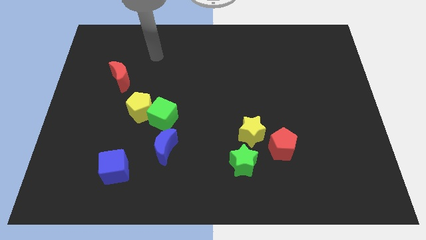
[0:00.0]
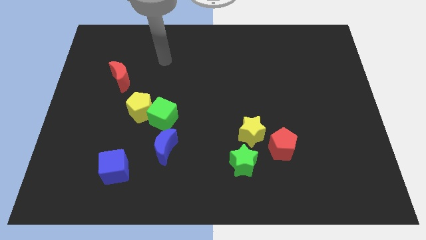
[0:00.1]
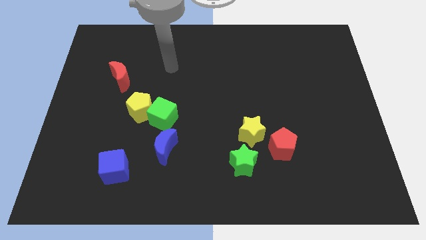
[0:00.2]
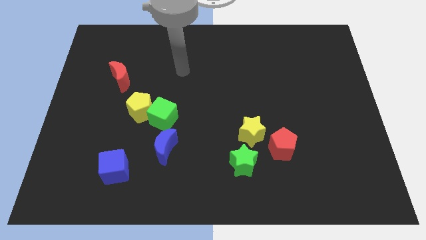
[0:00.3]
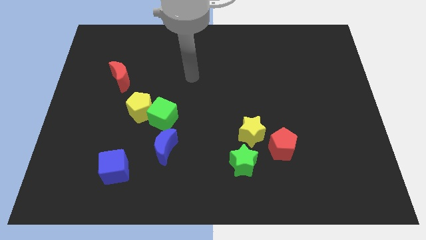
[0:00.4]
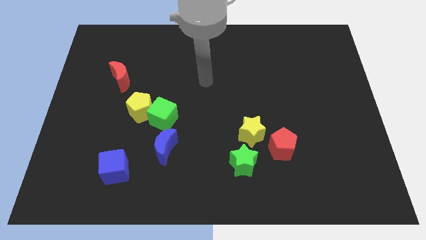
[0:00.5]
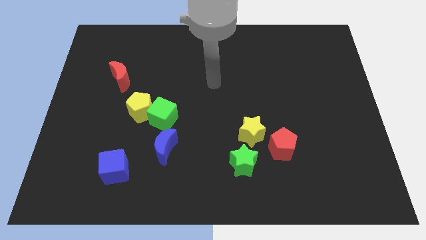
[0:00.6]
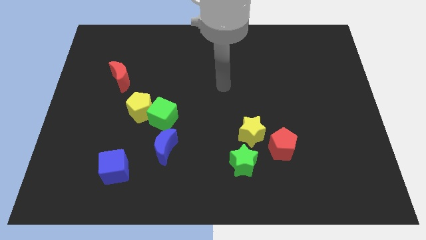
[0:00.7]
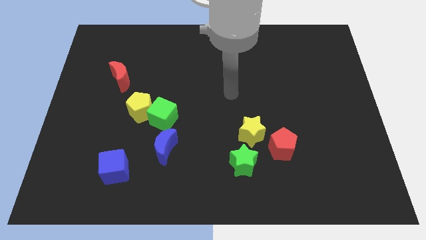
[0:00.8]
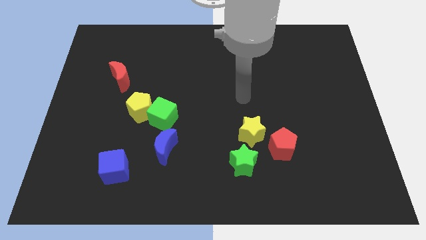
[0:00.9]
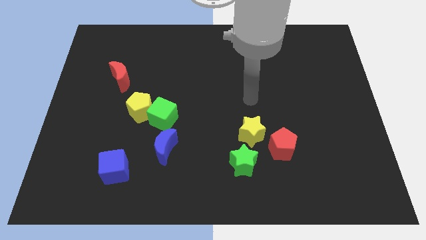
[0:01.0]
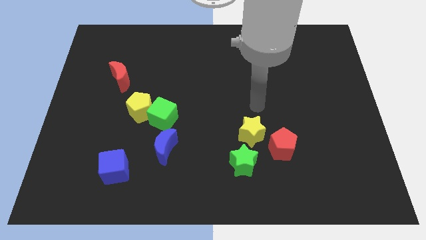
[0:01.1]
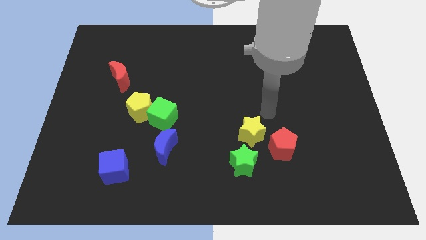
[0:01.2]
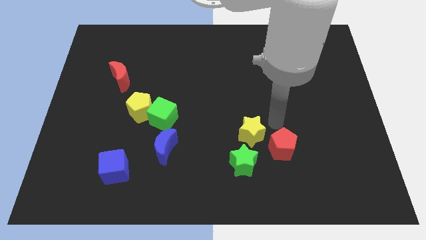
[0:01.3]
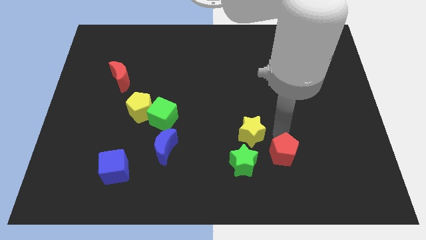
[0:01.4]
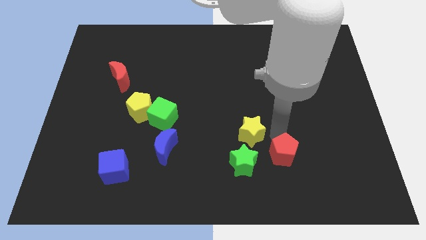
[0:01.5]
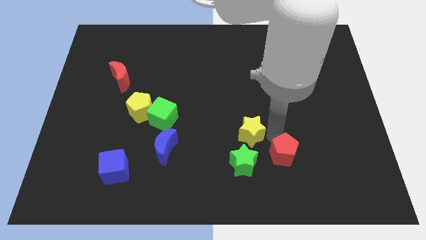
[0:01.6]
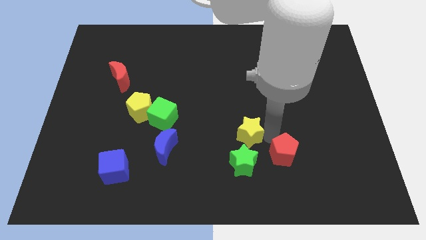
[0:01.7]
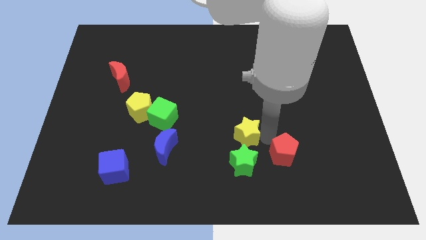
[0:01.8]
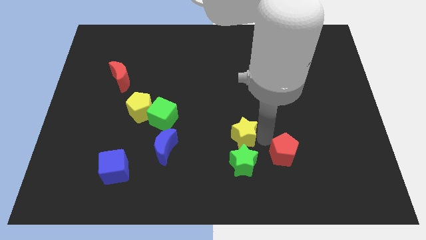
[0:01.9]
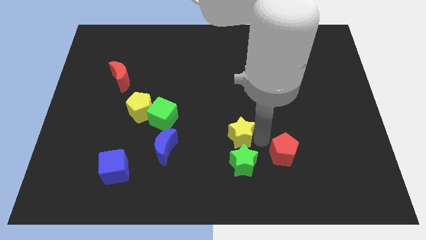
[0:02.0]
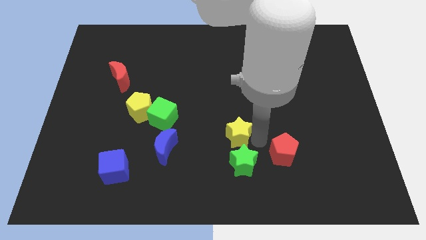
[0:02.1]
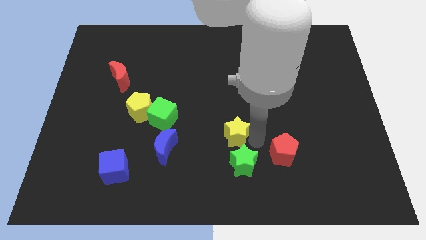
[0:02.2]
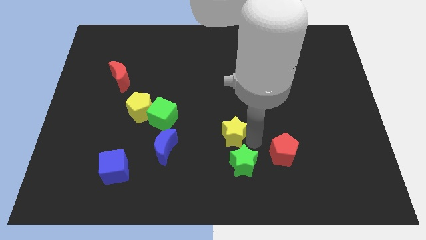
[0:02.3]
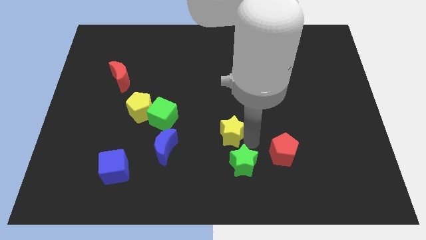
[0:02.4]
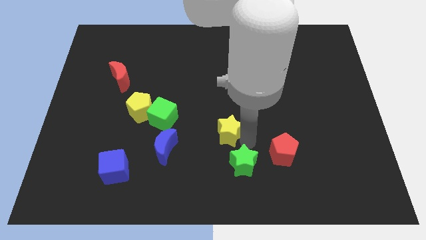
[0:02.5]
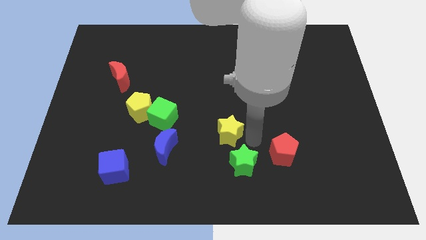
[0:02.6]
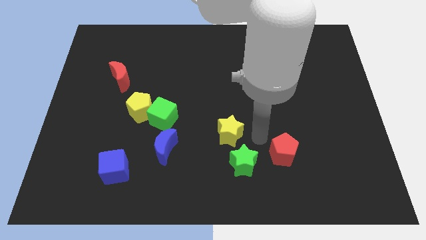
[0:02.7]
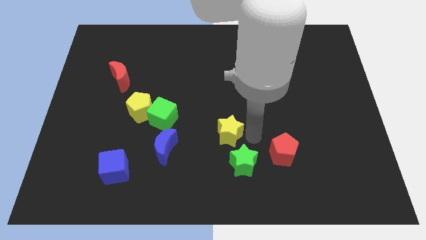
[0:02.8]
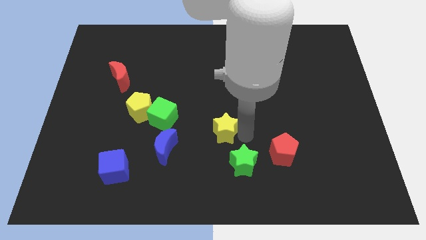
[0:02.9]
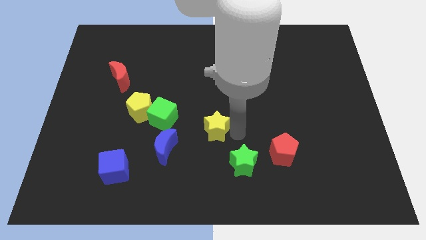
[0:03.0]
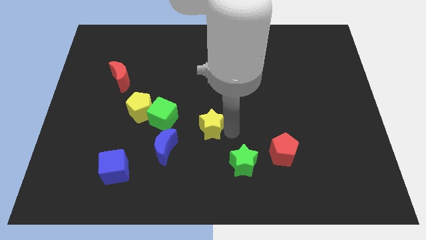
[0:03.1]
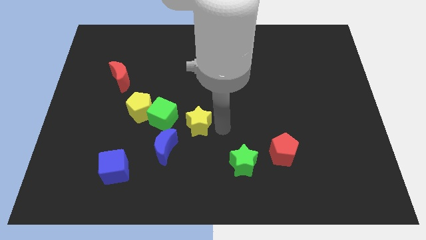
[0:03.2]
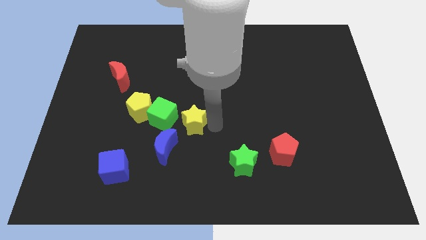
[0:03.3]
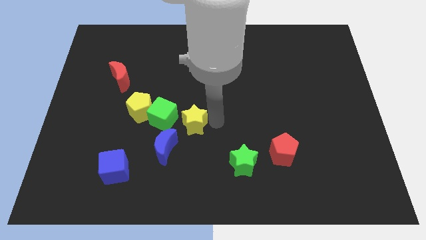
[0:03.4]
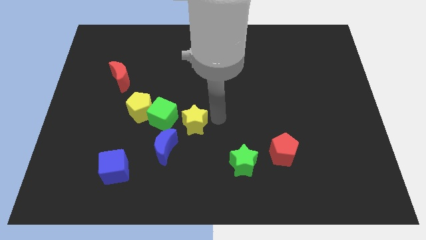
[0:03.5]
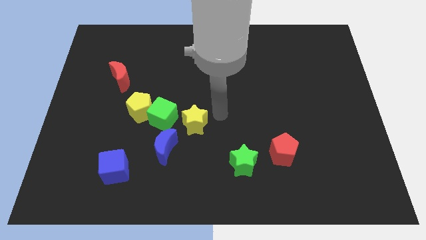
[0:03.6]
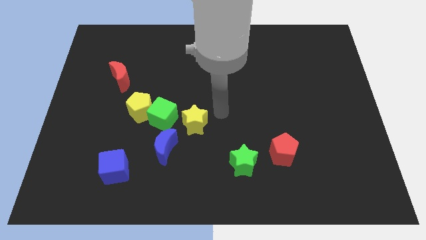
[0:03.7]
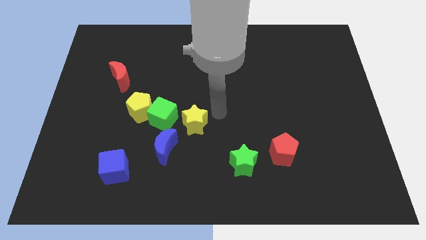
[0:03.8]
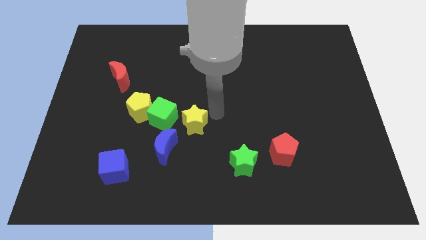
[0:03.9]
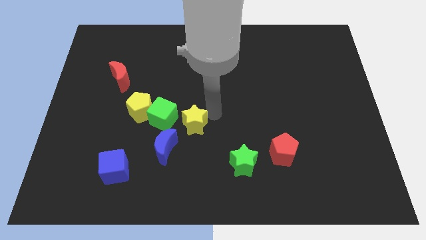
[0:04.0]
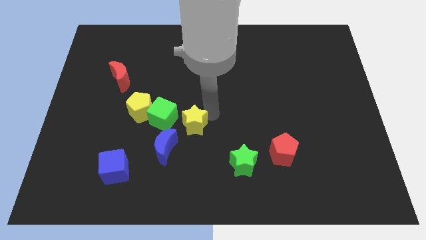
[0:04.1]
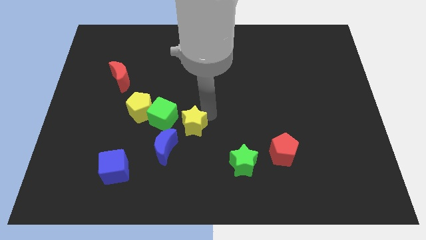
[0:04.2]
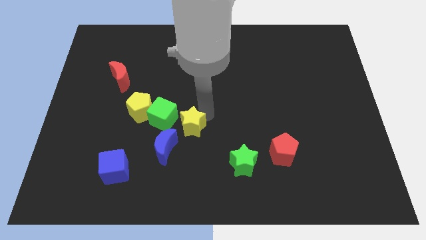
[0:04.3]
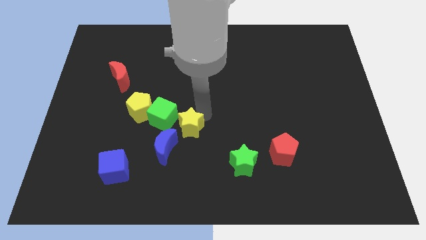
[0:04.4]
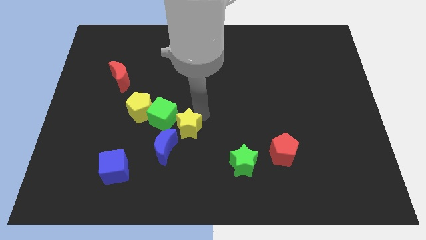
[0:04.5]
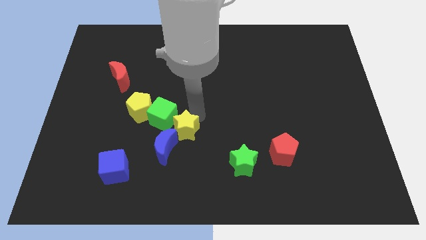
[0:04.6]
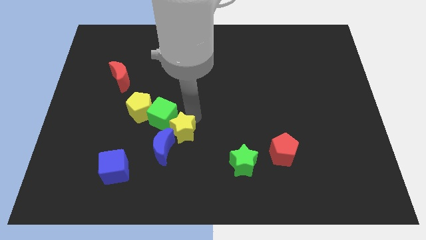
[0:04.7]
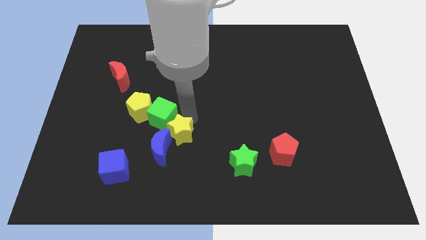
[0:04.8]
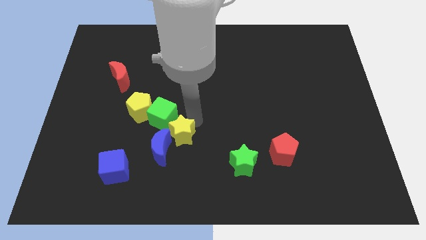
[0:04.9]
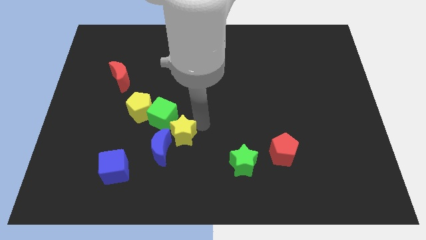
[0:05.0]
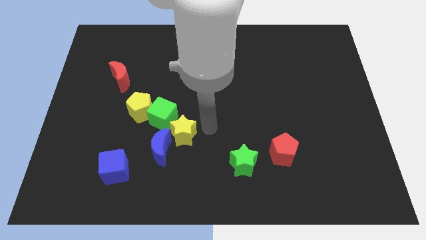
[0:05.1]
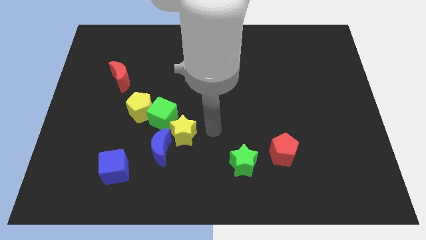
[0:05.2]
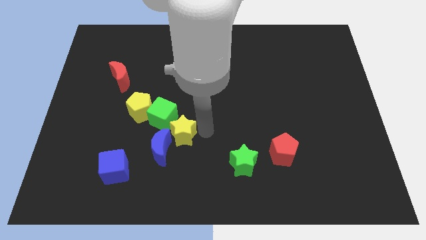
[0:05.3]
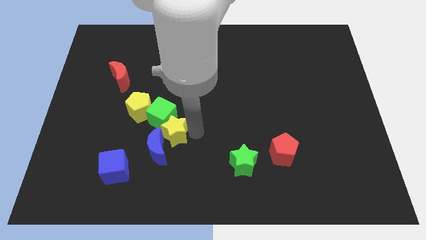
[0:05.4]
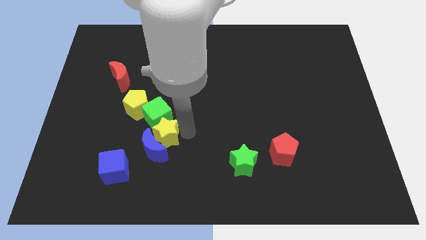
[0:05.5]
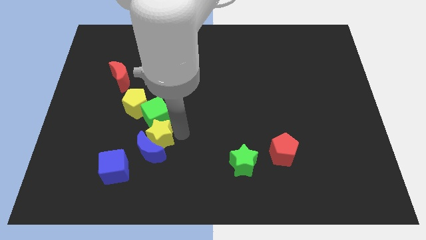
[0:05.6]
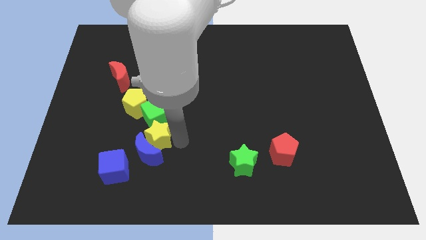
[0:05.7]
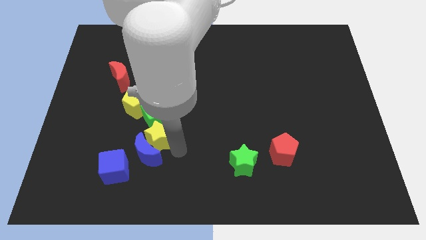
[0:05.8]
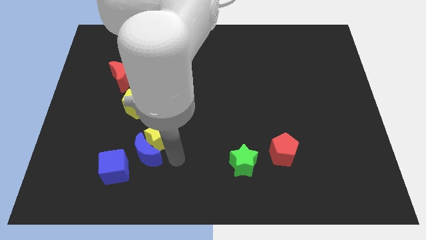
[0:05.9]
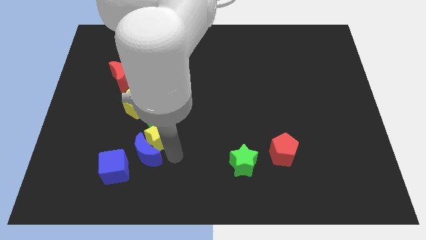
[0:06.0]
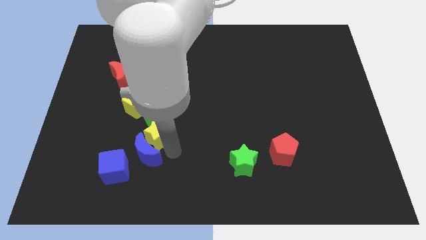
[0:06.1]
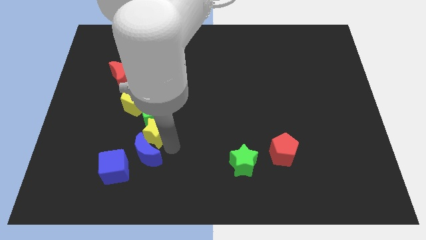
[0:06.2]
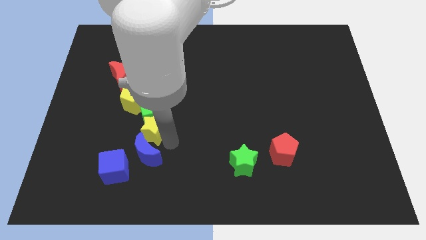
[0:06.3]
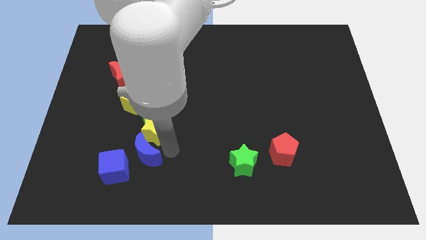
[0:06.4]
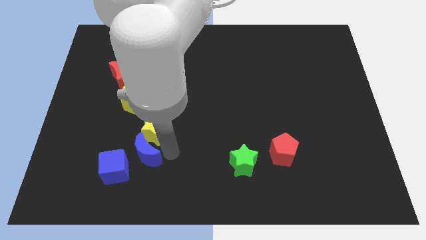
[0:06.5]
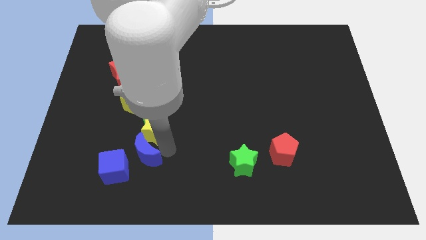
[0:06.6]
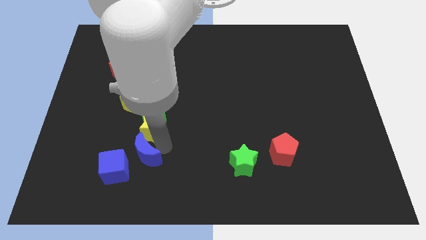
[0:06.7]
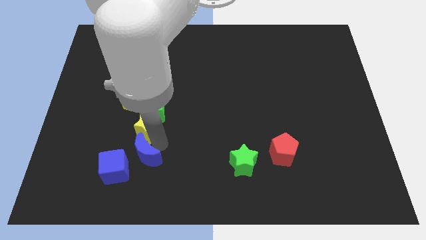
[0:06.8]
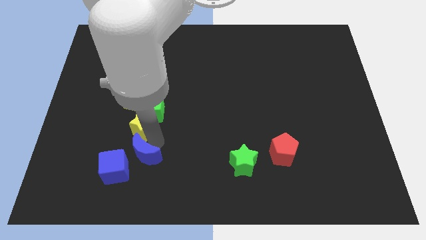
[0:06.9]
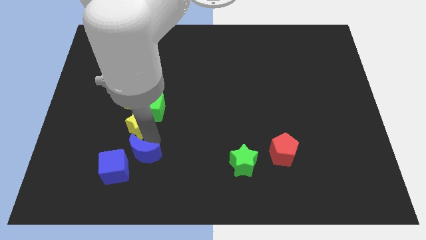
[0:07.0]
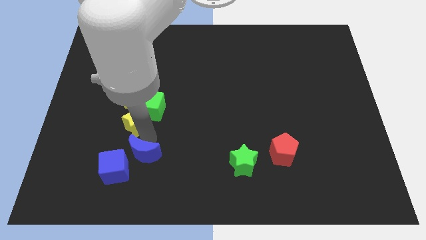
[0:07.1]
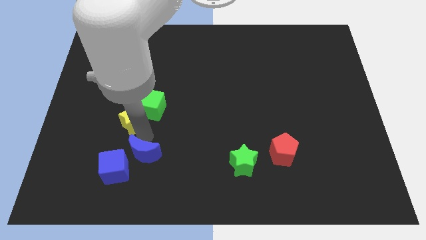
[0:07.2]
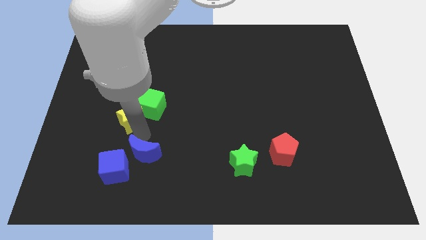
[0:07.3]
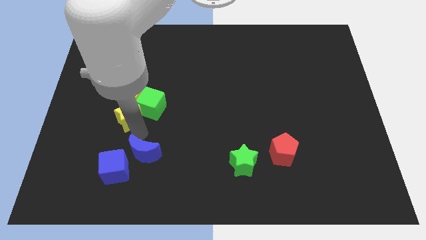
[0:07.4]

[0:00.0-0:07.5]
put the yellow star towards the yellow pentagon

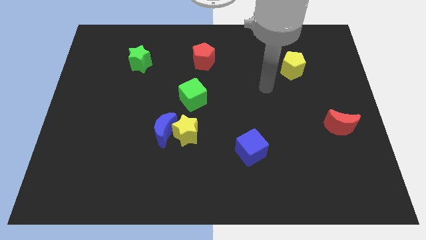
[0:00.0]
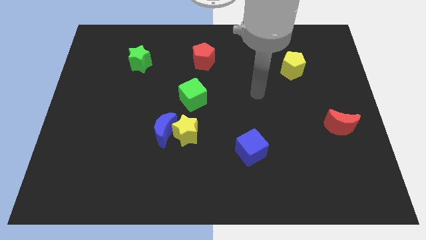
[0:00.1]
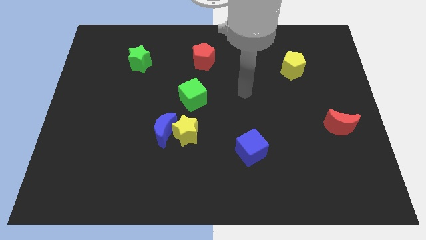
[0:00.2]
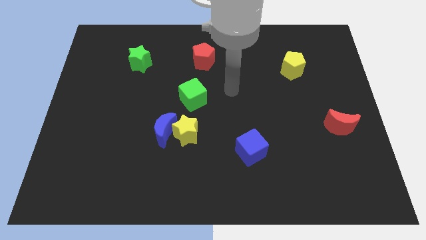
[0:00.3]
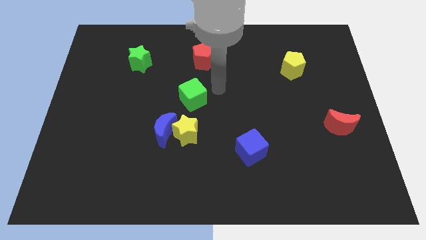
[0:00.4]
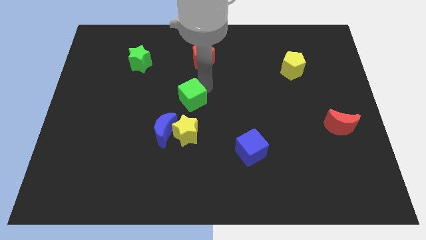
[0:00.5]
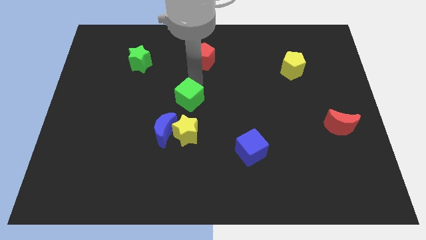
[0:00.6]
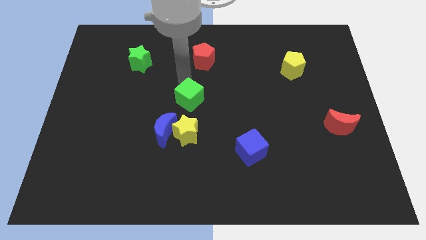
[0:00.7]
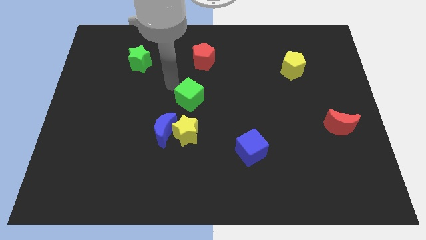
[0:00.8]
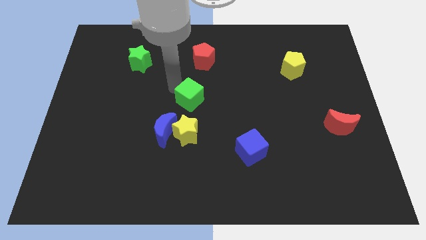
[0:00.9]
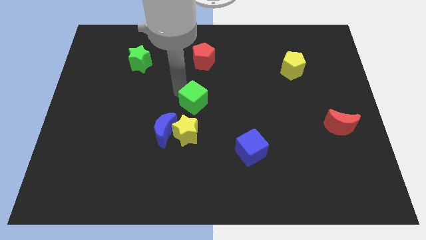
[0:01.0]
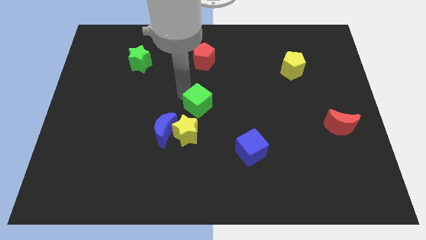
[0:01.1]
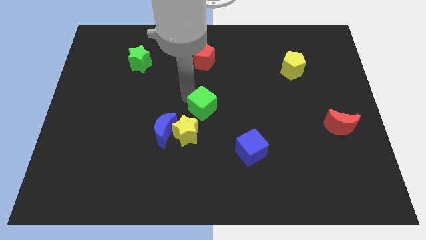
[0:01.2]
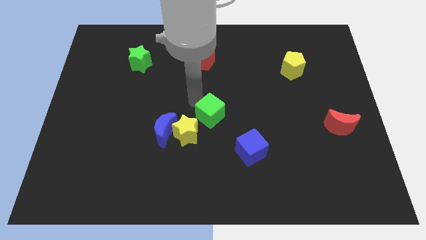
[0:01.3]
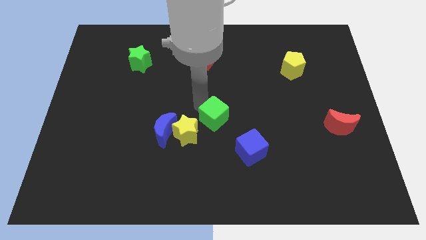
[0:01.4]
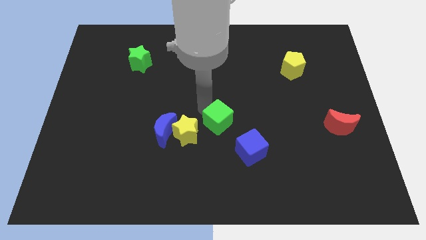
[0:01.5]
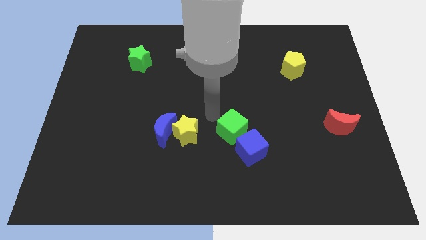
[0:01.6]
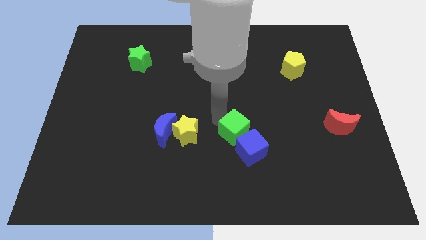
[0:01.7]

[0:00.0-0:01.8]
move the green cube to the blue cube
